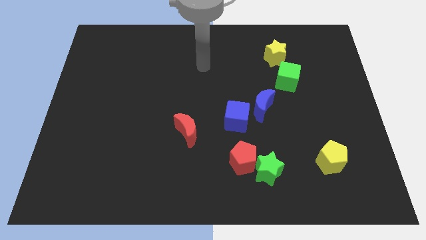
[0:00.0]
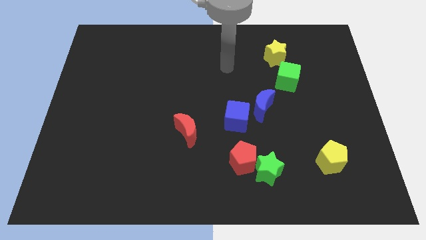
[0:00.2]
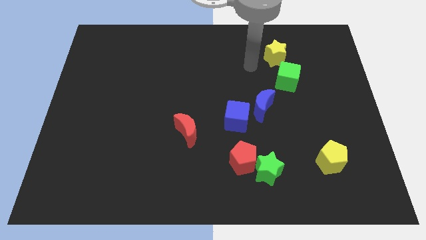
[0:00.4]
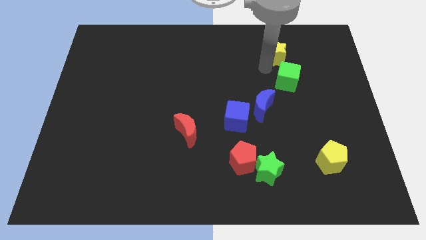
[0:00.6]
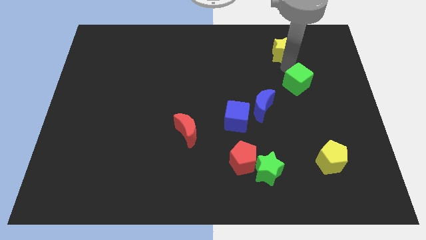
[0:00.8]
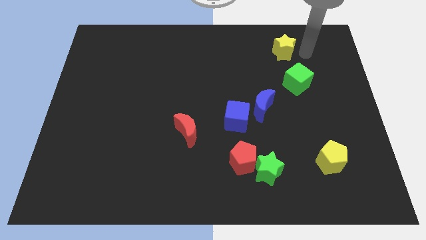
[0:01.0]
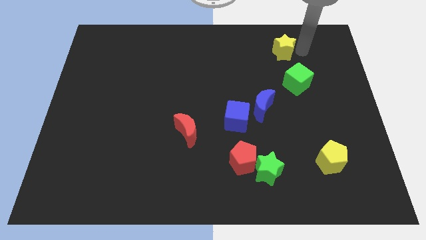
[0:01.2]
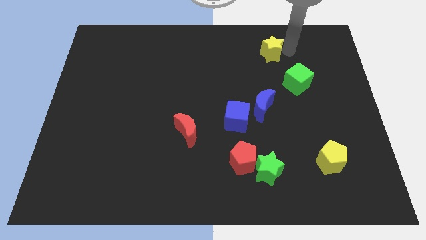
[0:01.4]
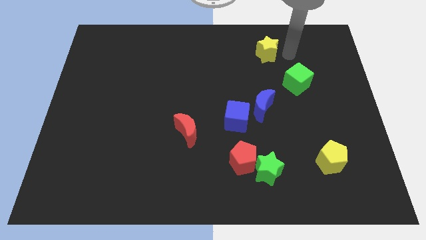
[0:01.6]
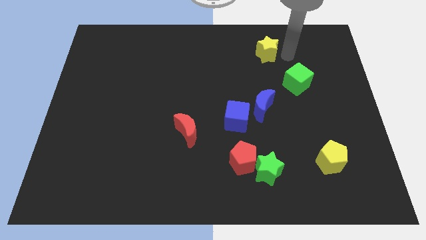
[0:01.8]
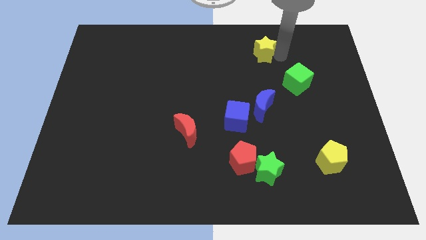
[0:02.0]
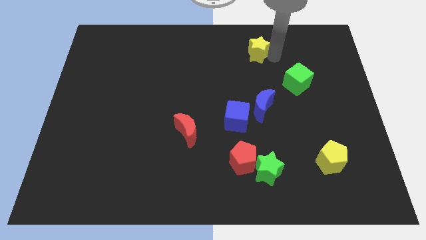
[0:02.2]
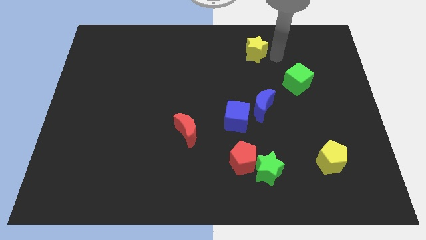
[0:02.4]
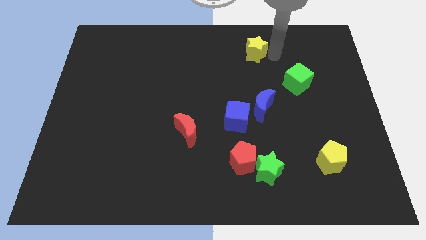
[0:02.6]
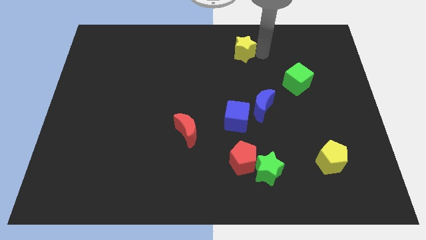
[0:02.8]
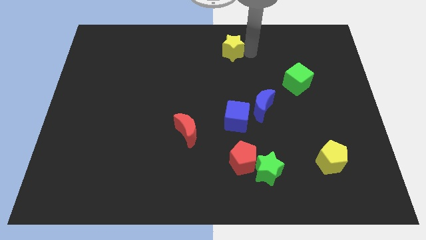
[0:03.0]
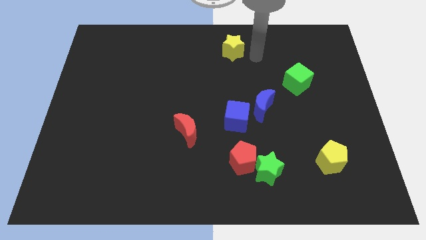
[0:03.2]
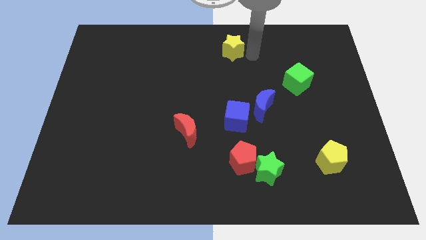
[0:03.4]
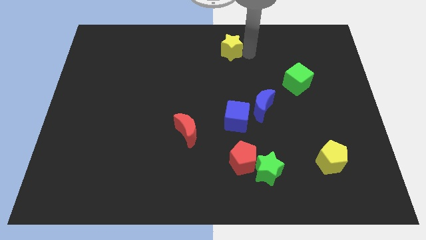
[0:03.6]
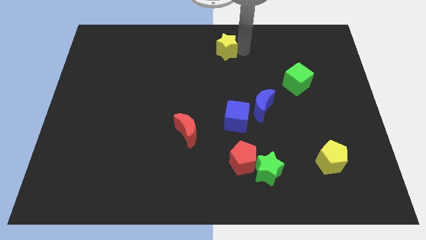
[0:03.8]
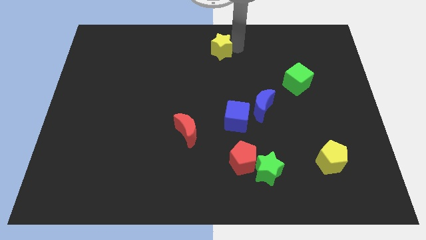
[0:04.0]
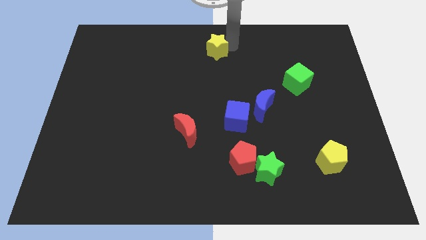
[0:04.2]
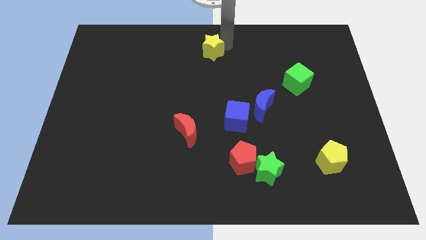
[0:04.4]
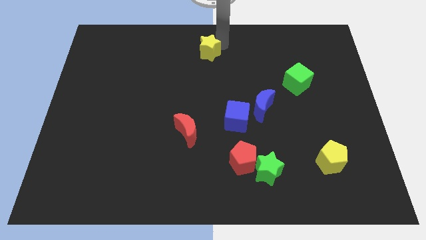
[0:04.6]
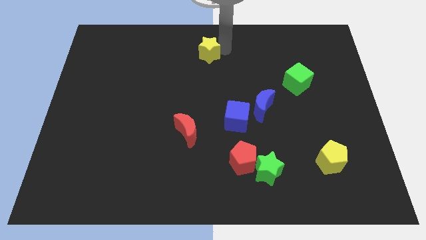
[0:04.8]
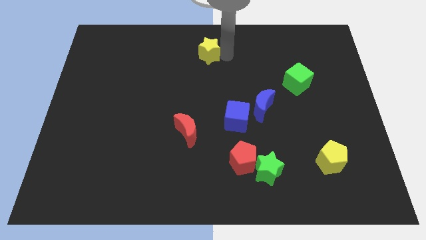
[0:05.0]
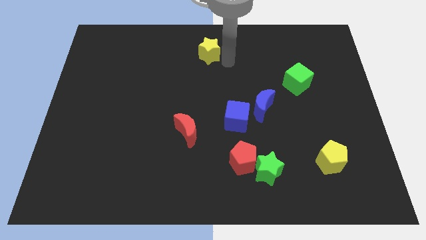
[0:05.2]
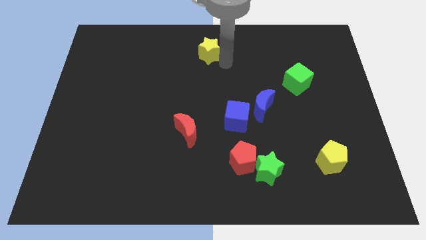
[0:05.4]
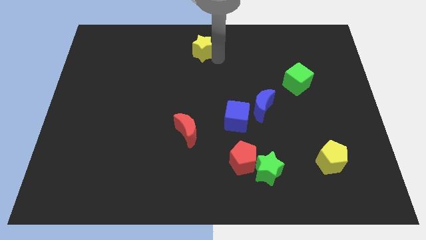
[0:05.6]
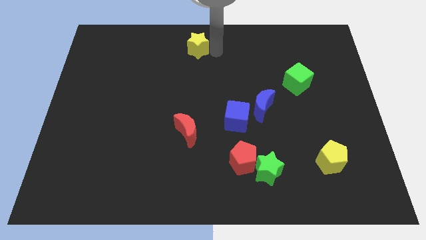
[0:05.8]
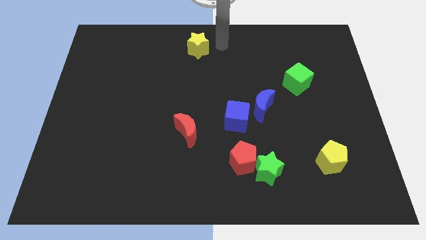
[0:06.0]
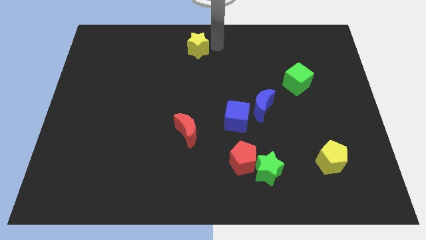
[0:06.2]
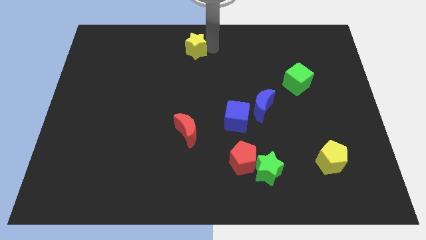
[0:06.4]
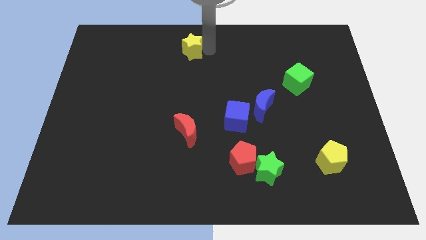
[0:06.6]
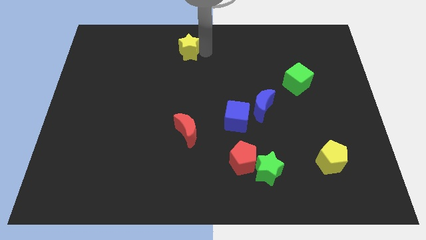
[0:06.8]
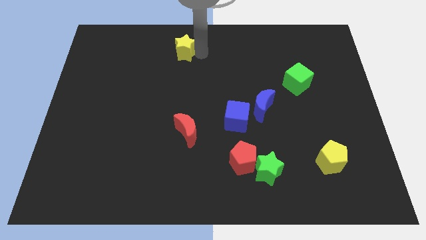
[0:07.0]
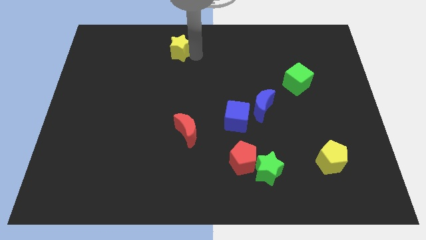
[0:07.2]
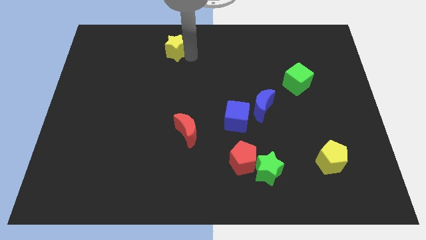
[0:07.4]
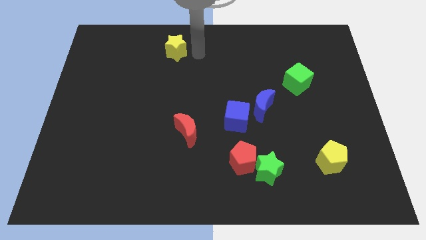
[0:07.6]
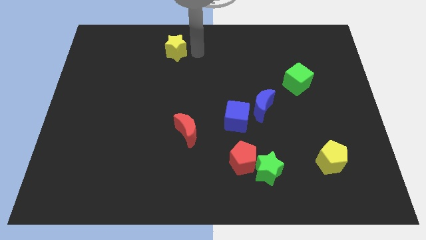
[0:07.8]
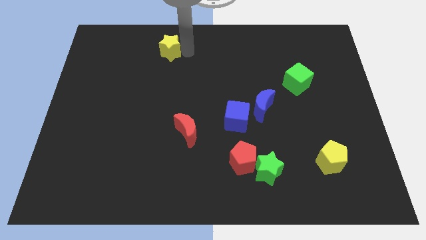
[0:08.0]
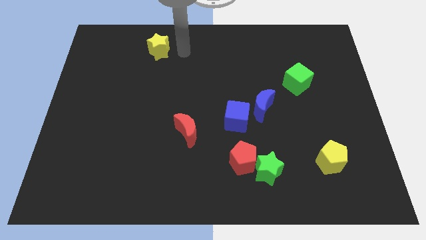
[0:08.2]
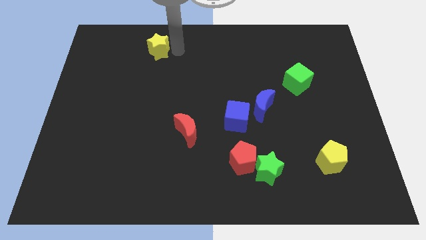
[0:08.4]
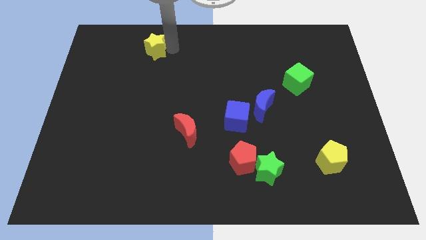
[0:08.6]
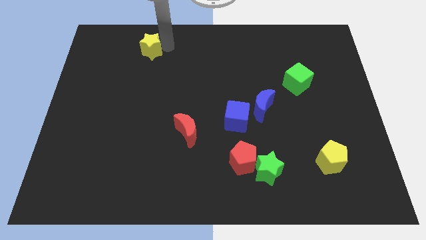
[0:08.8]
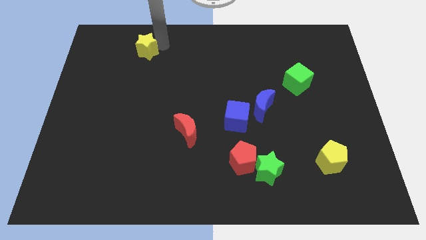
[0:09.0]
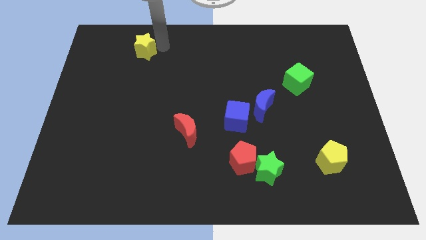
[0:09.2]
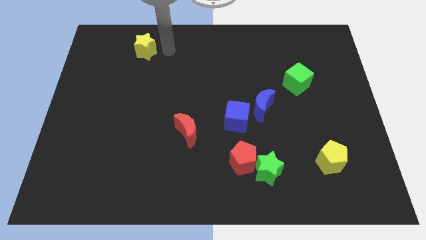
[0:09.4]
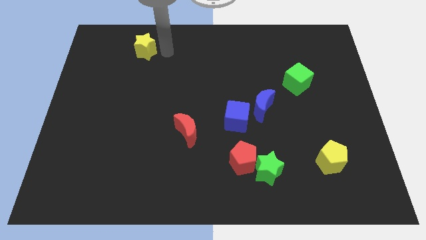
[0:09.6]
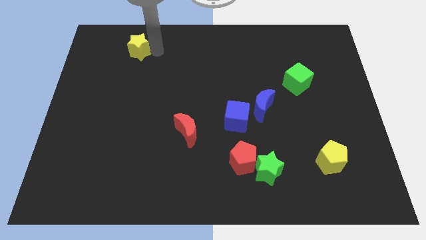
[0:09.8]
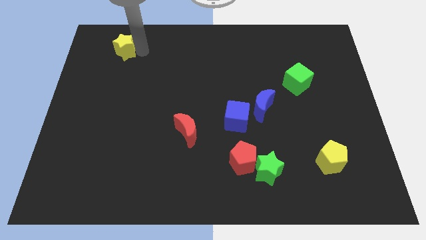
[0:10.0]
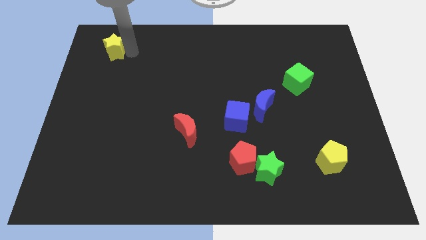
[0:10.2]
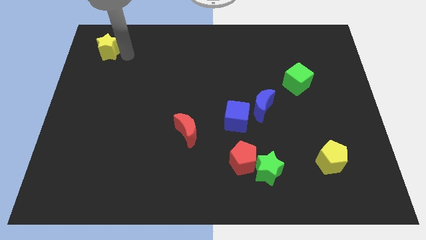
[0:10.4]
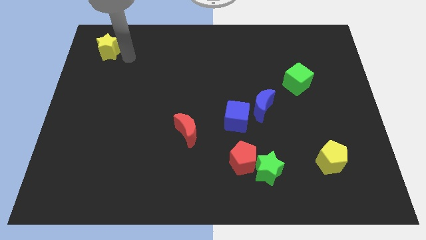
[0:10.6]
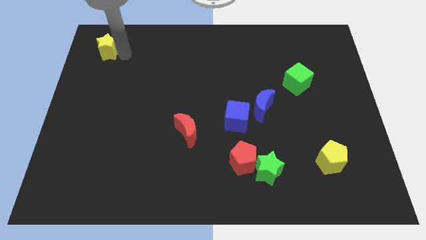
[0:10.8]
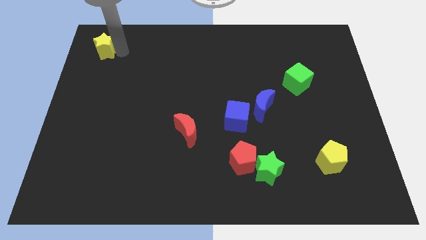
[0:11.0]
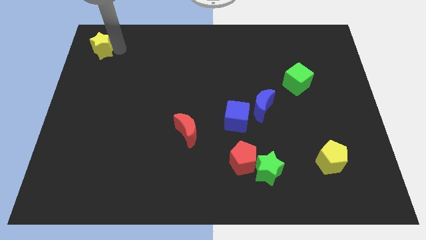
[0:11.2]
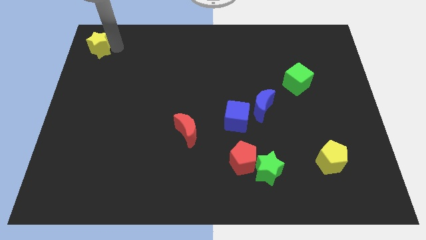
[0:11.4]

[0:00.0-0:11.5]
move the yellow star to the top left
